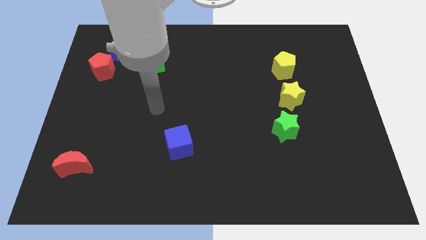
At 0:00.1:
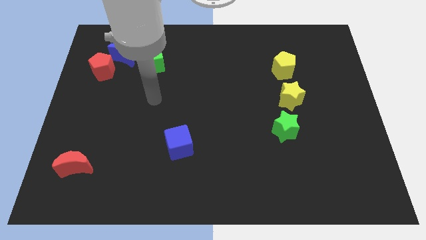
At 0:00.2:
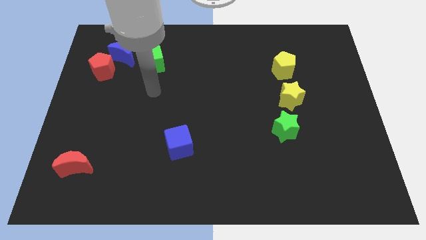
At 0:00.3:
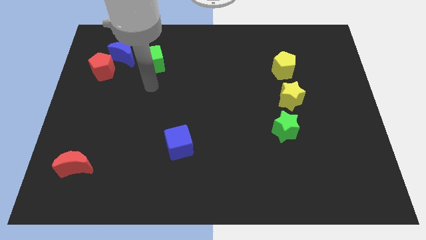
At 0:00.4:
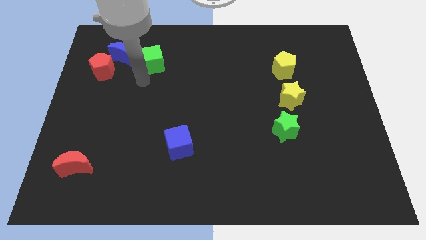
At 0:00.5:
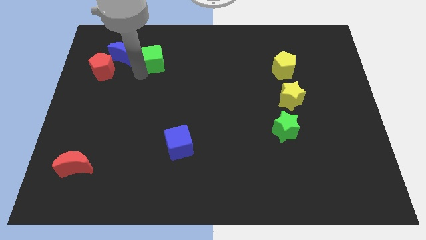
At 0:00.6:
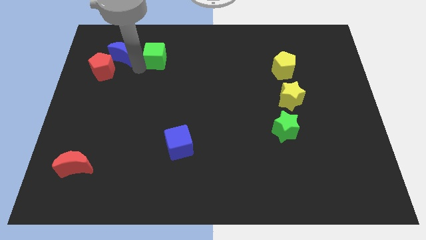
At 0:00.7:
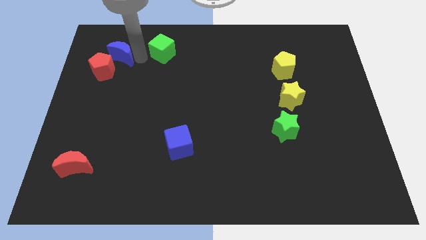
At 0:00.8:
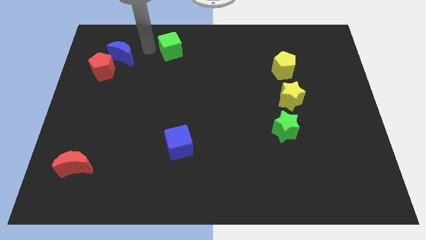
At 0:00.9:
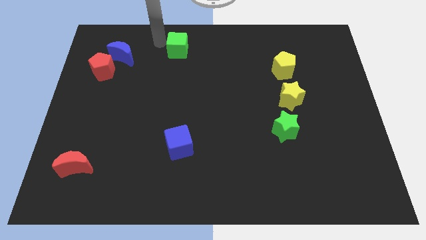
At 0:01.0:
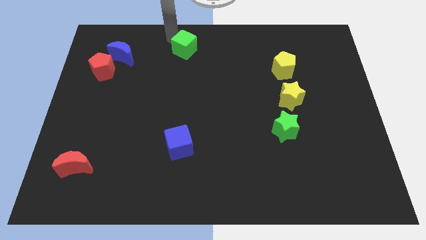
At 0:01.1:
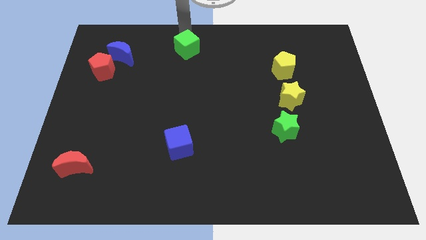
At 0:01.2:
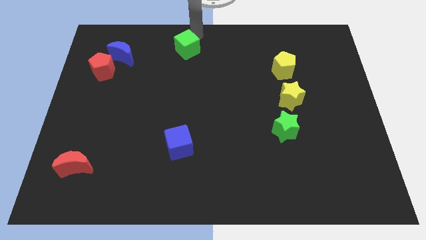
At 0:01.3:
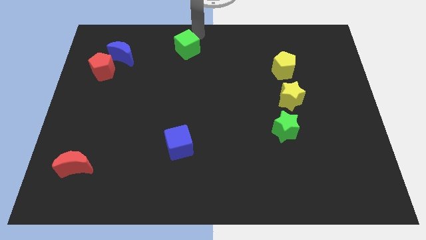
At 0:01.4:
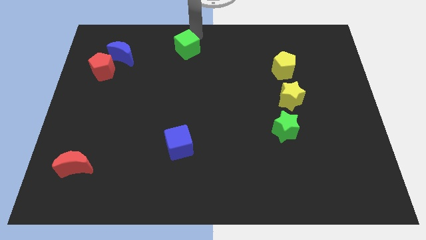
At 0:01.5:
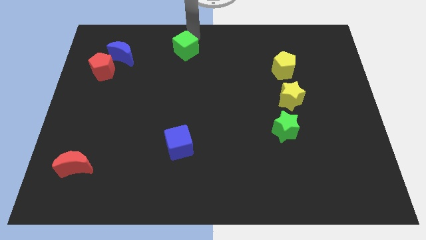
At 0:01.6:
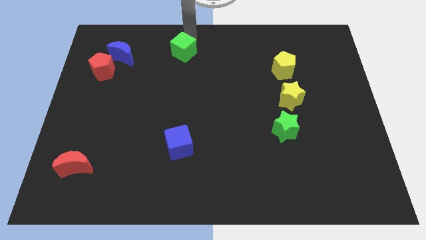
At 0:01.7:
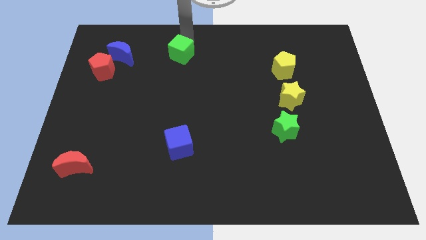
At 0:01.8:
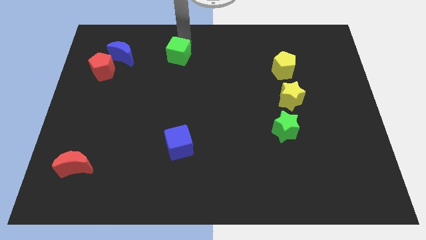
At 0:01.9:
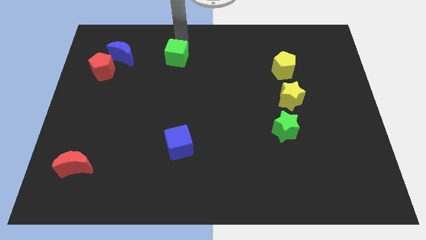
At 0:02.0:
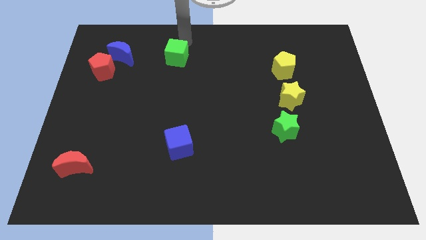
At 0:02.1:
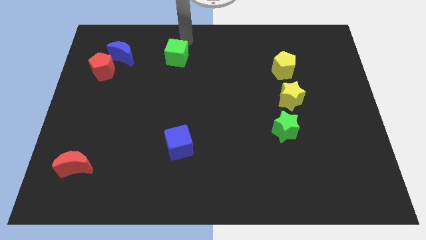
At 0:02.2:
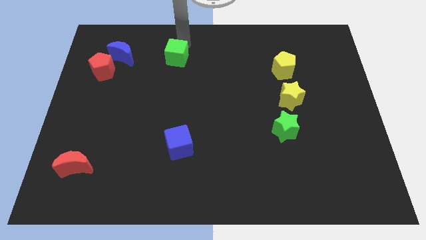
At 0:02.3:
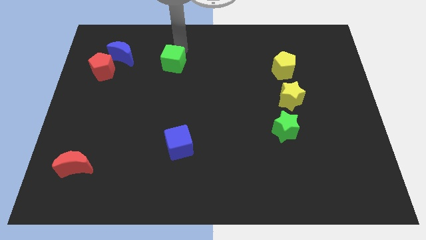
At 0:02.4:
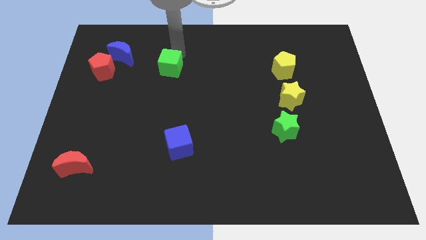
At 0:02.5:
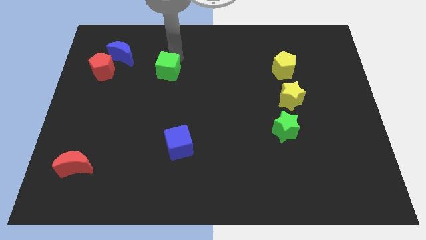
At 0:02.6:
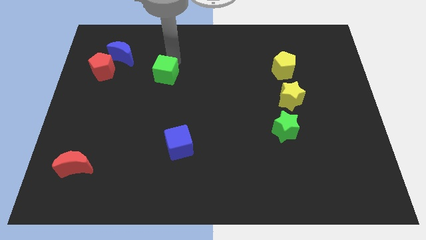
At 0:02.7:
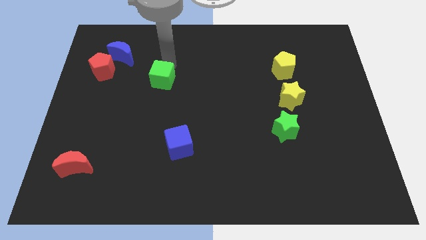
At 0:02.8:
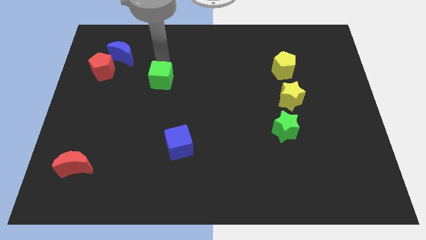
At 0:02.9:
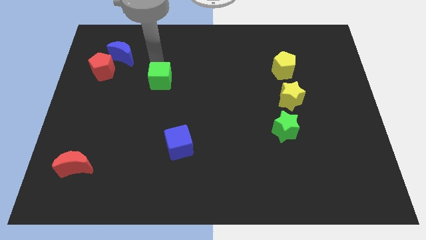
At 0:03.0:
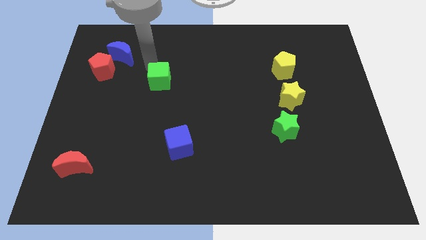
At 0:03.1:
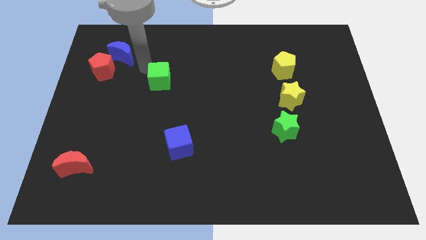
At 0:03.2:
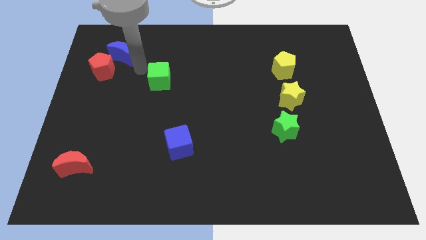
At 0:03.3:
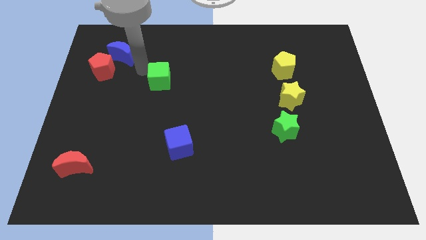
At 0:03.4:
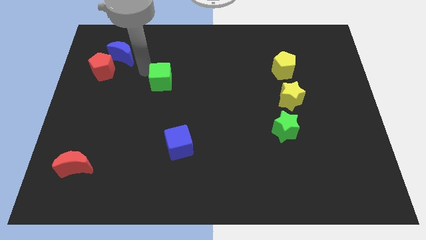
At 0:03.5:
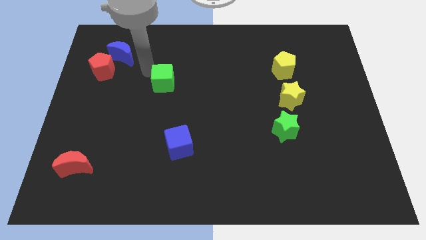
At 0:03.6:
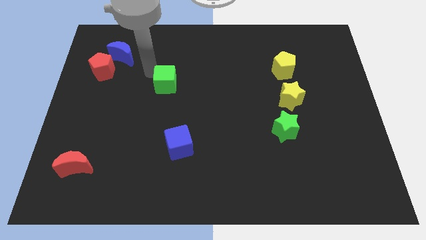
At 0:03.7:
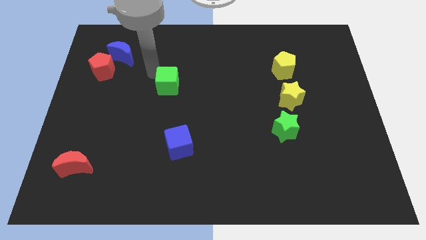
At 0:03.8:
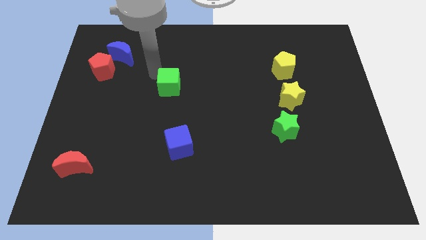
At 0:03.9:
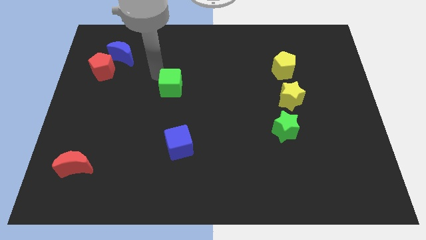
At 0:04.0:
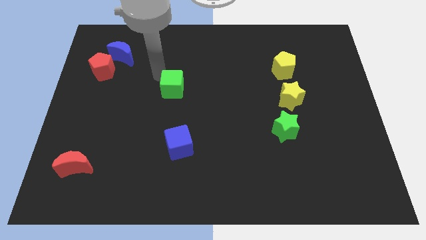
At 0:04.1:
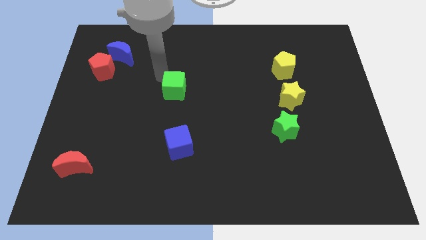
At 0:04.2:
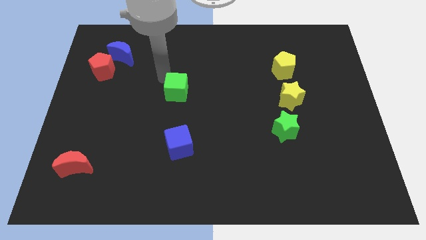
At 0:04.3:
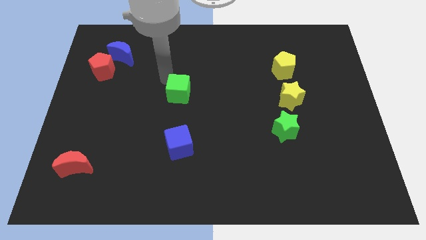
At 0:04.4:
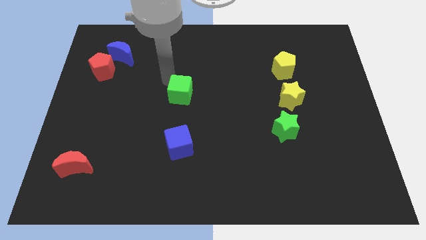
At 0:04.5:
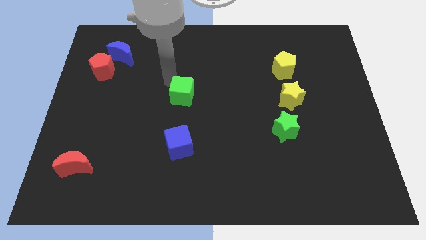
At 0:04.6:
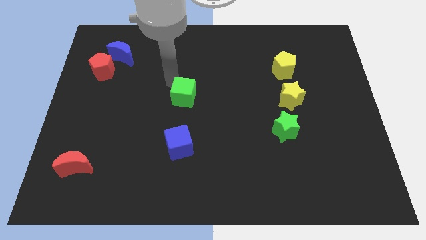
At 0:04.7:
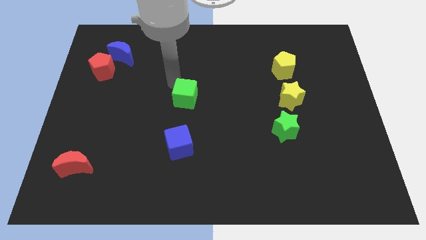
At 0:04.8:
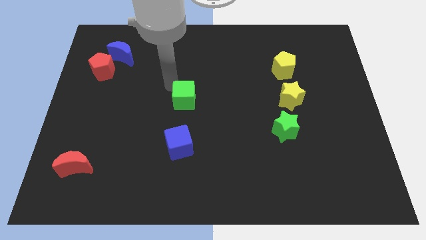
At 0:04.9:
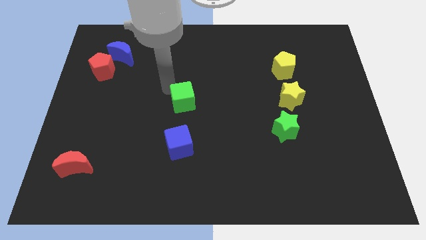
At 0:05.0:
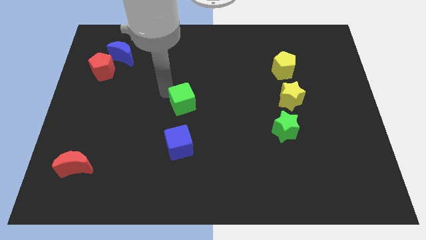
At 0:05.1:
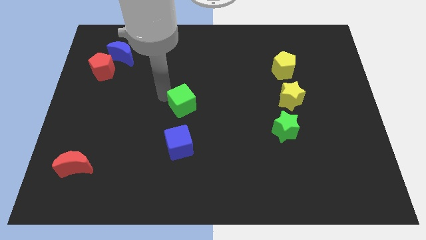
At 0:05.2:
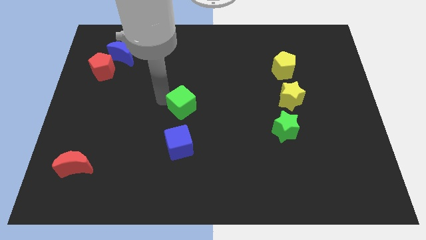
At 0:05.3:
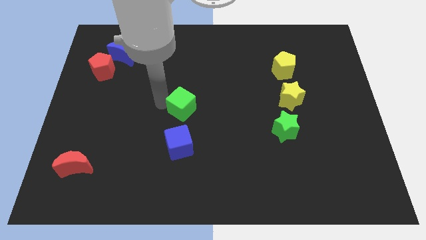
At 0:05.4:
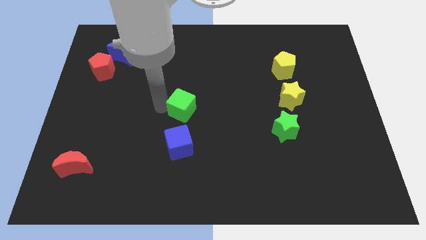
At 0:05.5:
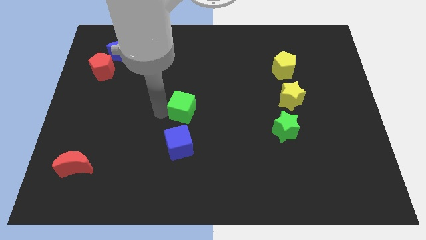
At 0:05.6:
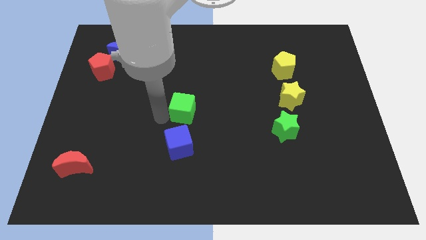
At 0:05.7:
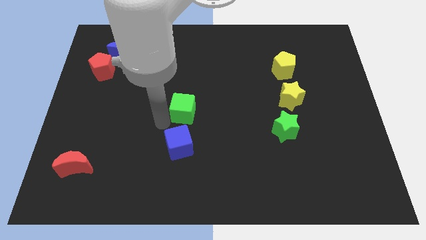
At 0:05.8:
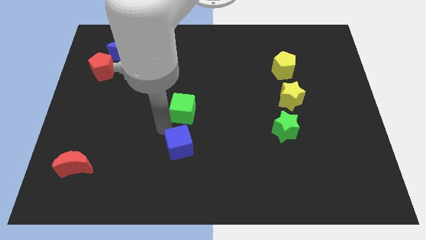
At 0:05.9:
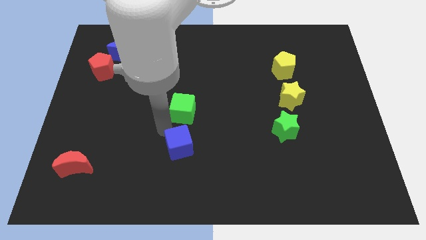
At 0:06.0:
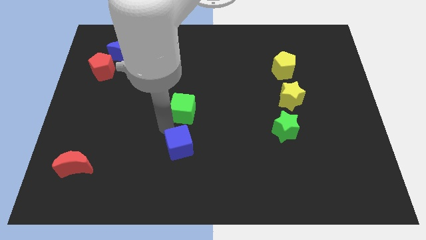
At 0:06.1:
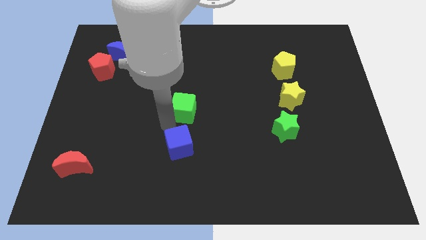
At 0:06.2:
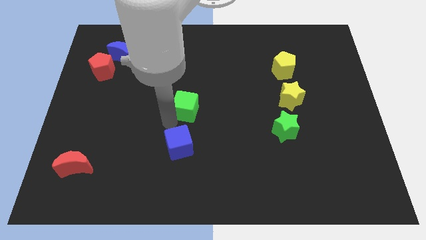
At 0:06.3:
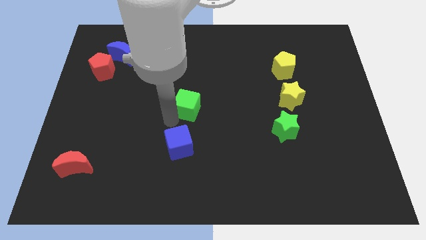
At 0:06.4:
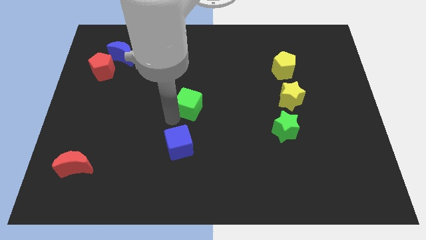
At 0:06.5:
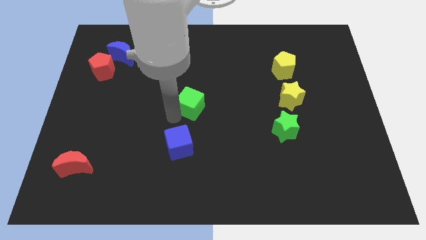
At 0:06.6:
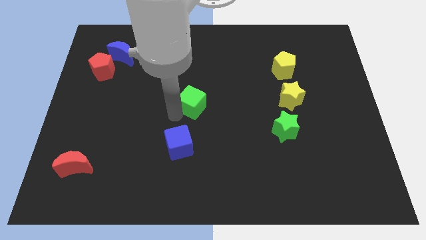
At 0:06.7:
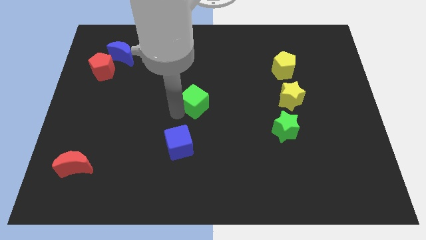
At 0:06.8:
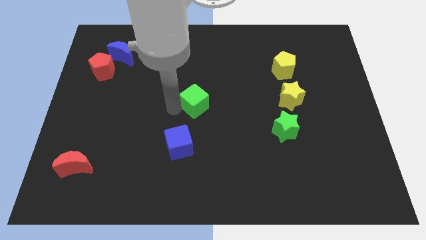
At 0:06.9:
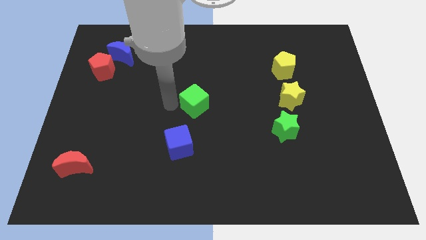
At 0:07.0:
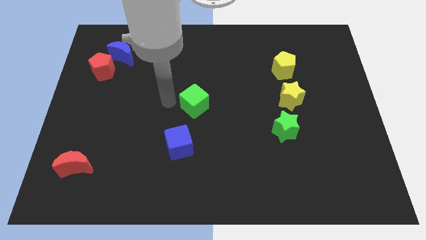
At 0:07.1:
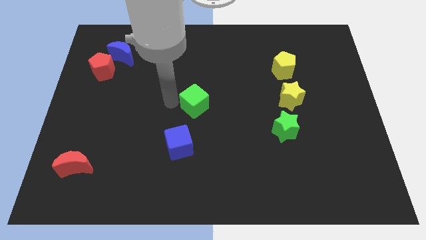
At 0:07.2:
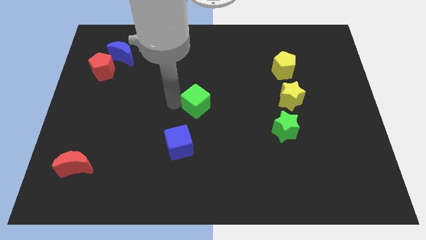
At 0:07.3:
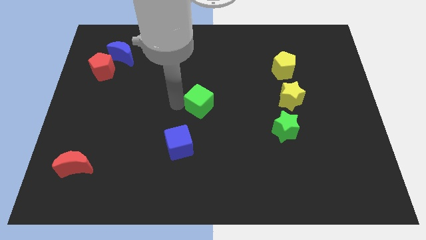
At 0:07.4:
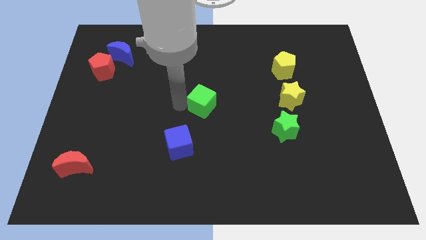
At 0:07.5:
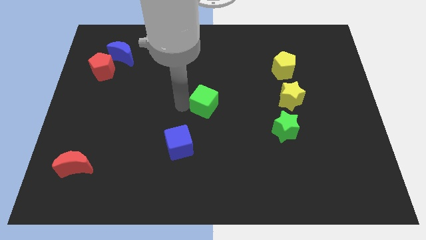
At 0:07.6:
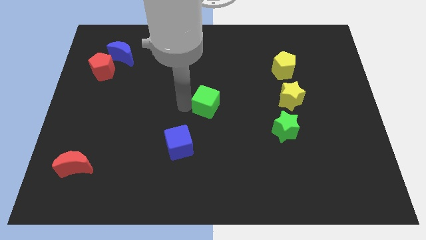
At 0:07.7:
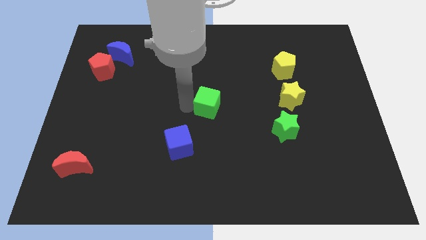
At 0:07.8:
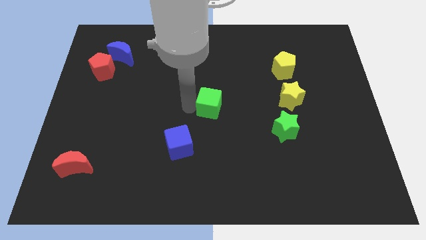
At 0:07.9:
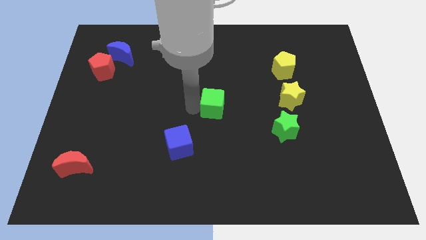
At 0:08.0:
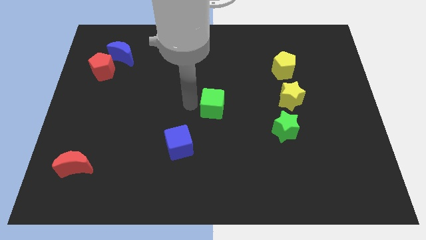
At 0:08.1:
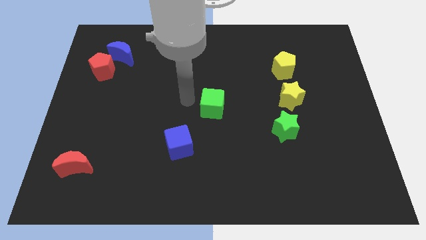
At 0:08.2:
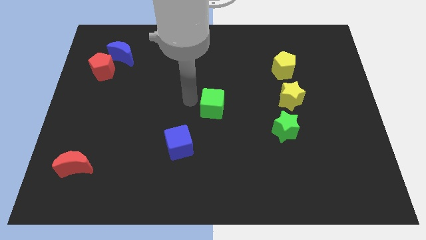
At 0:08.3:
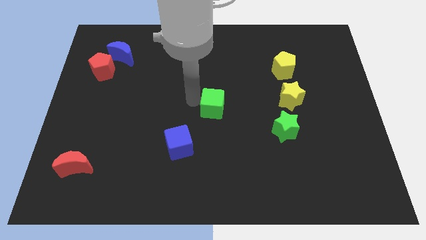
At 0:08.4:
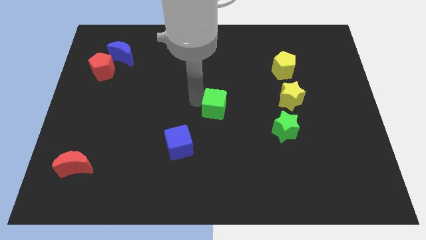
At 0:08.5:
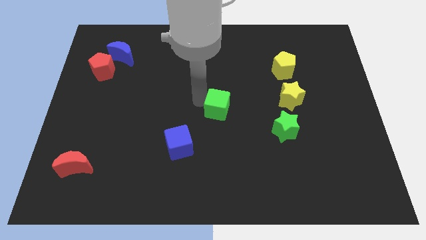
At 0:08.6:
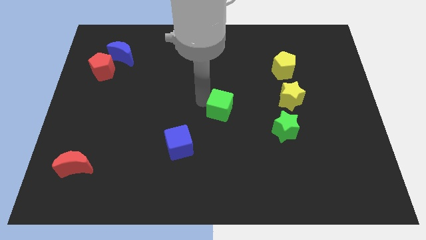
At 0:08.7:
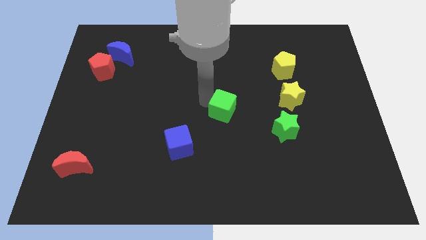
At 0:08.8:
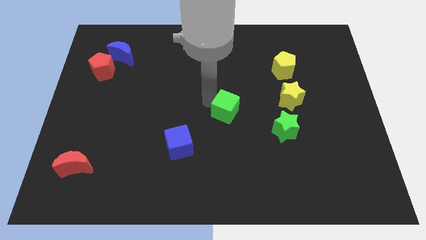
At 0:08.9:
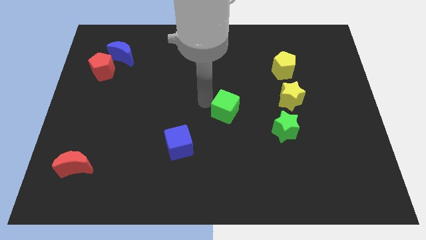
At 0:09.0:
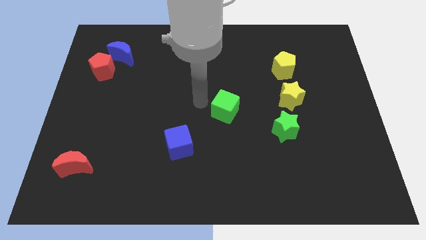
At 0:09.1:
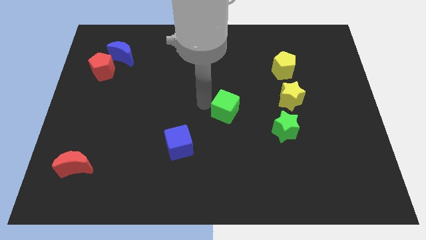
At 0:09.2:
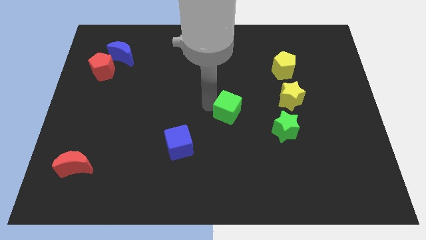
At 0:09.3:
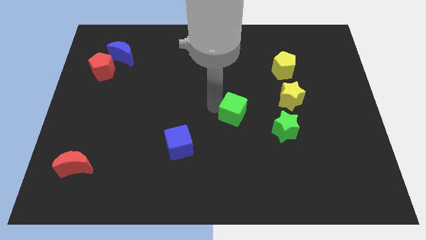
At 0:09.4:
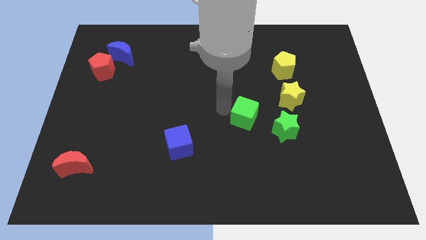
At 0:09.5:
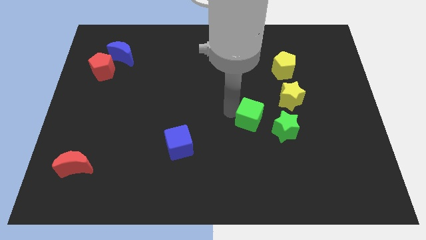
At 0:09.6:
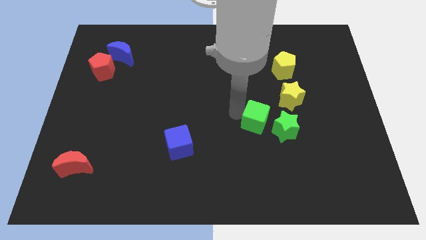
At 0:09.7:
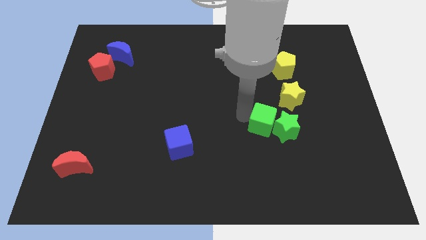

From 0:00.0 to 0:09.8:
move the green cube close to the green star
